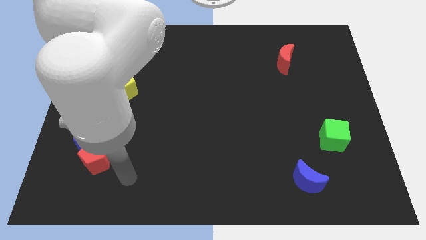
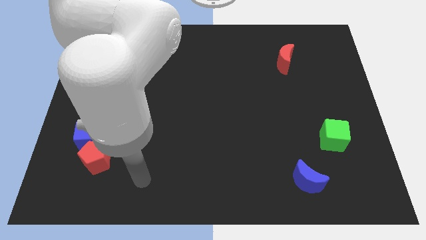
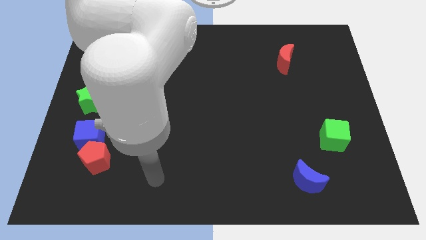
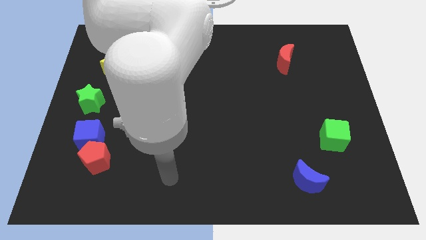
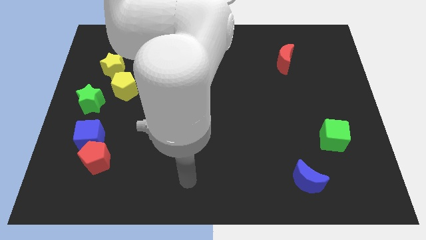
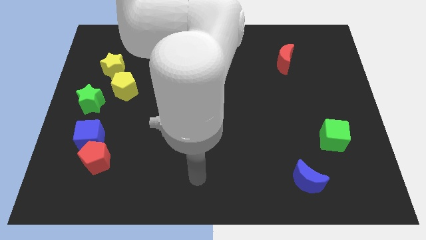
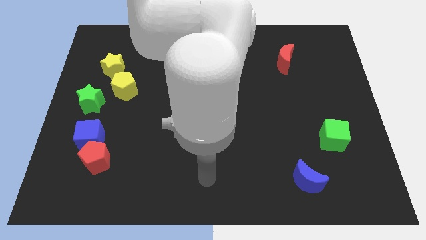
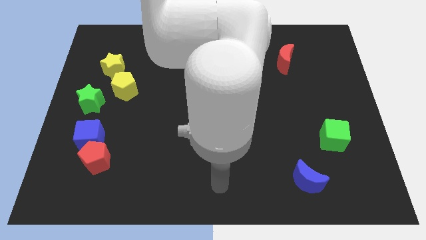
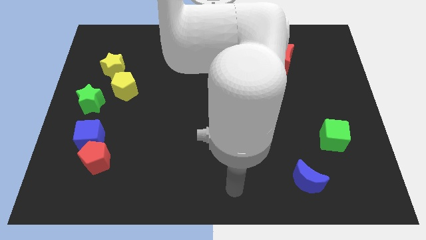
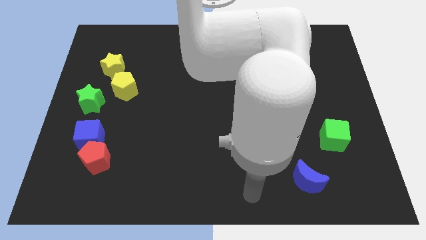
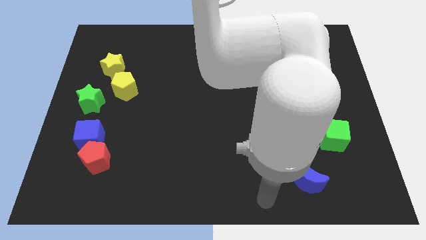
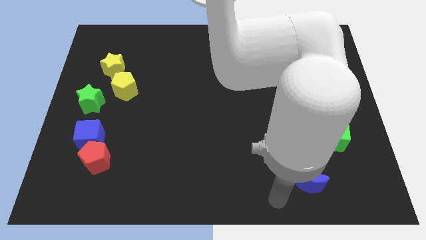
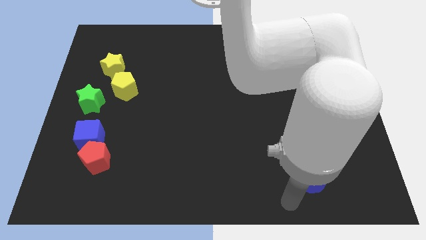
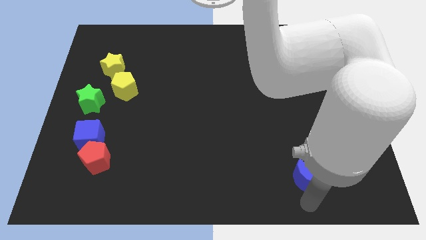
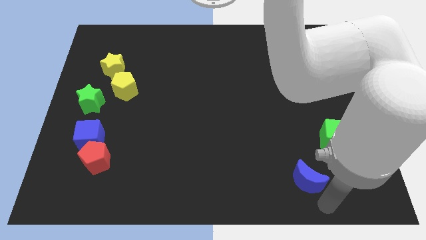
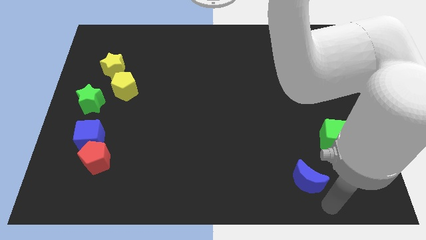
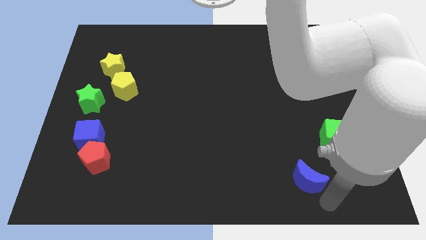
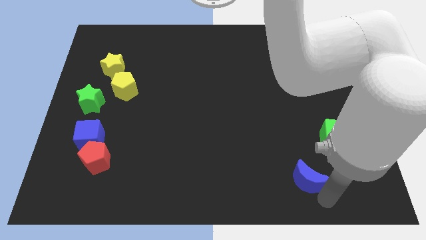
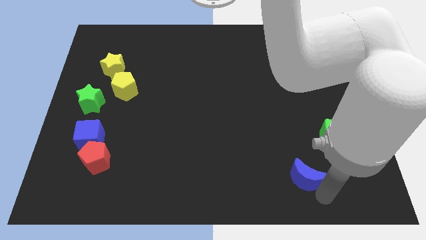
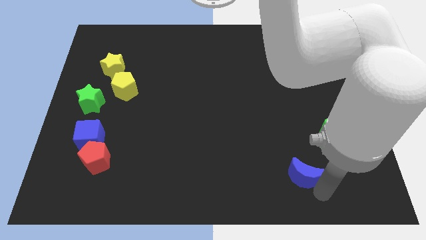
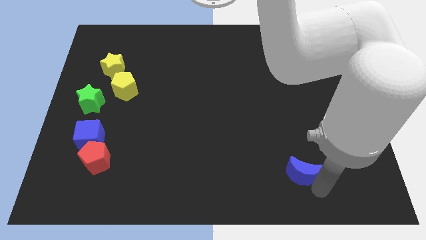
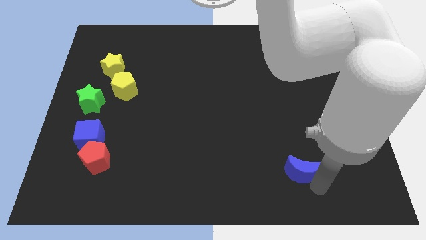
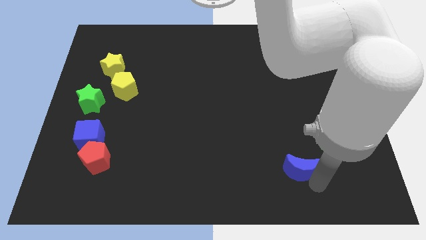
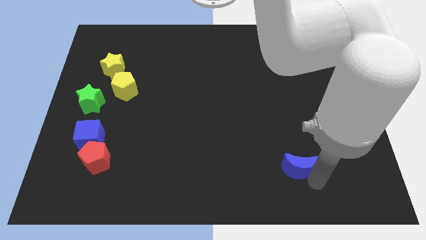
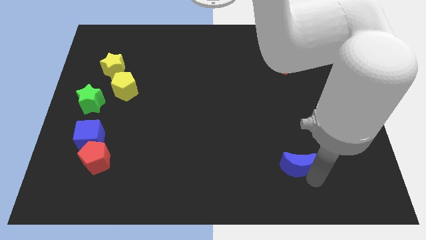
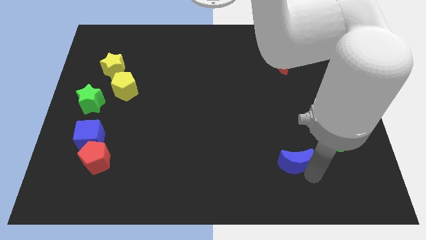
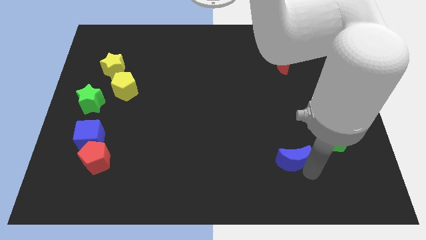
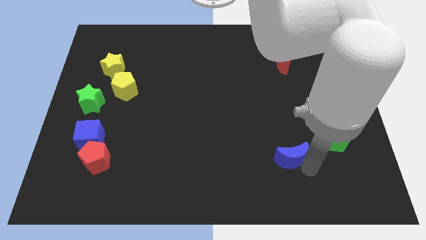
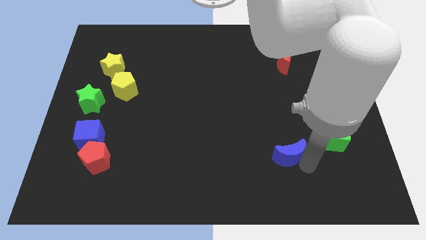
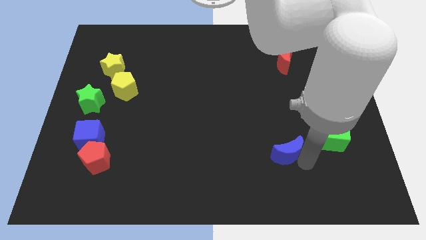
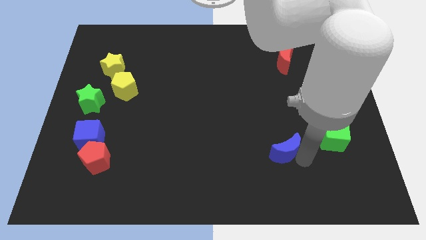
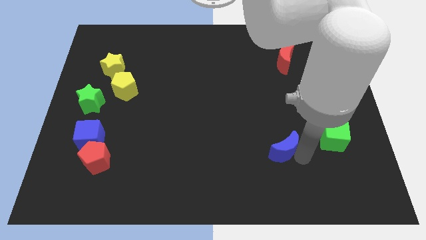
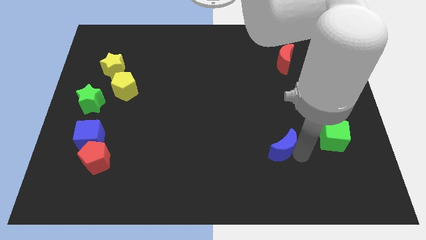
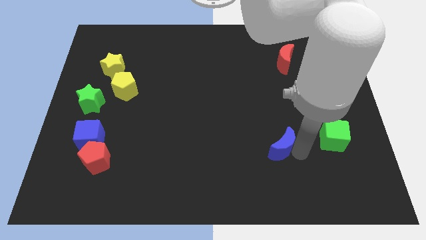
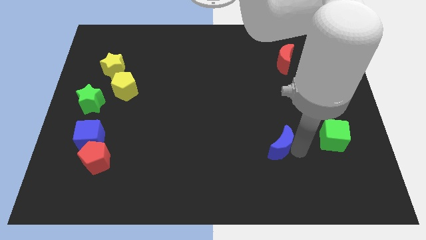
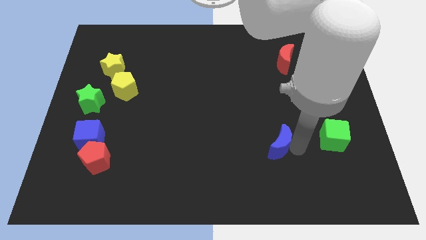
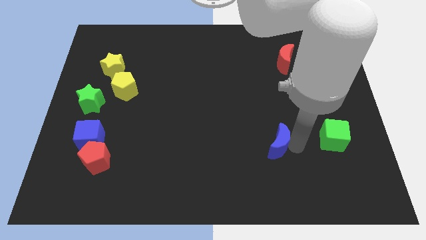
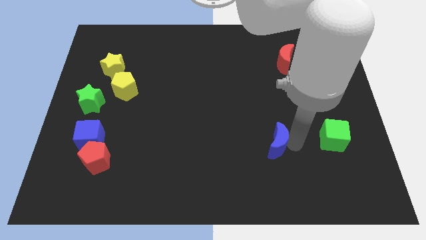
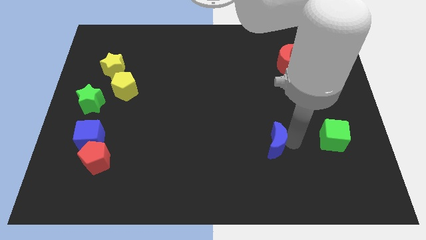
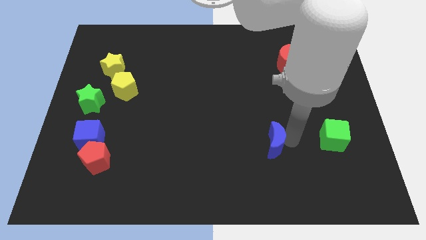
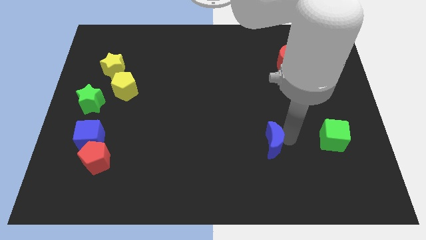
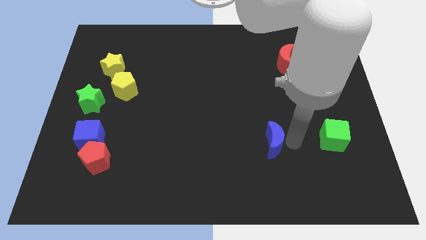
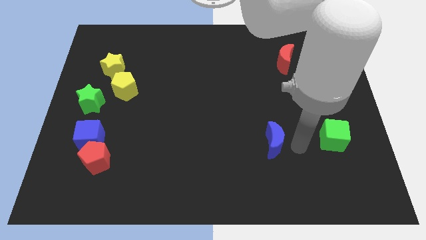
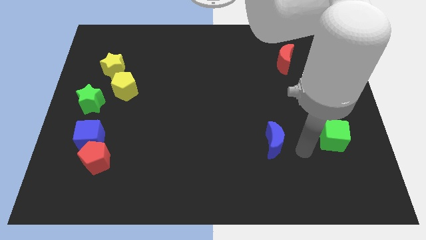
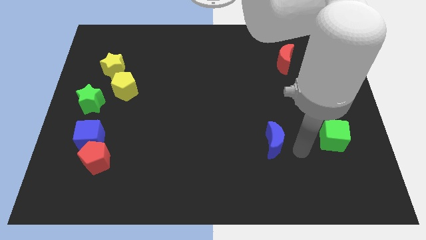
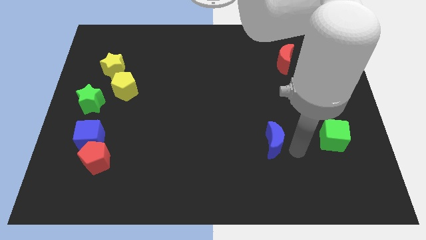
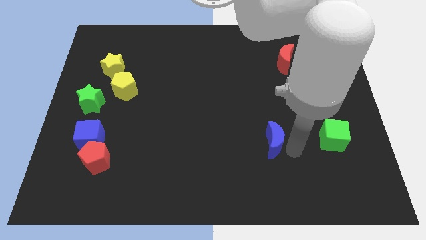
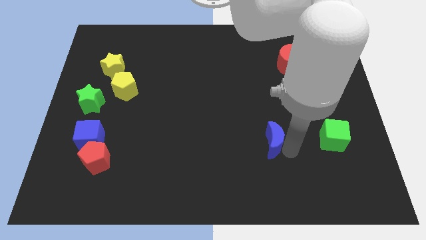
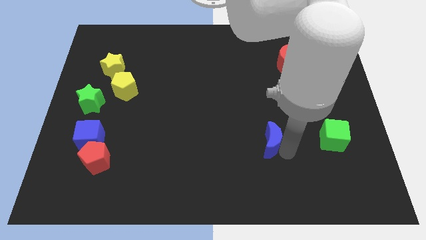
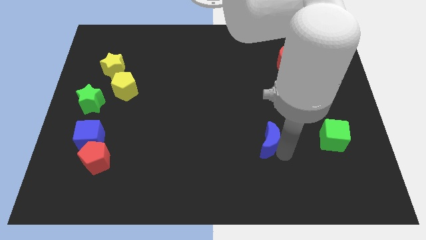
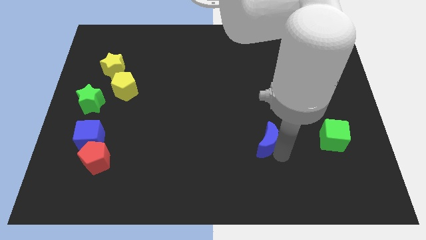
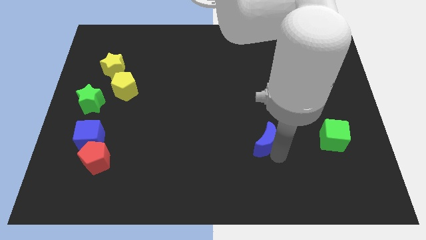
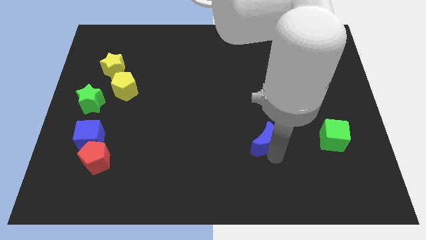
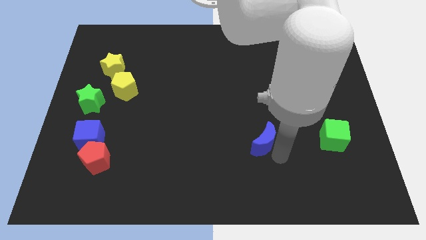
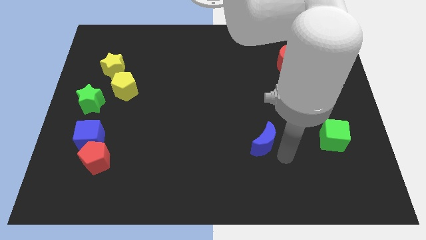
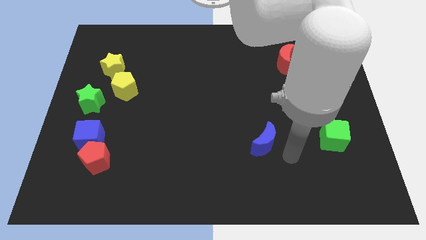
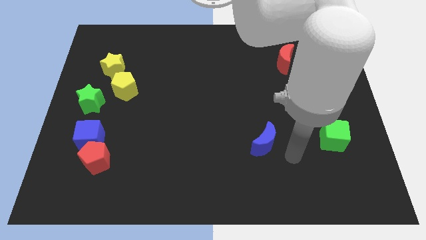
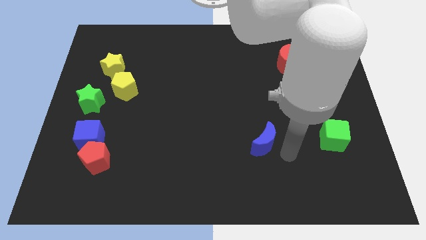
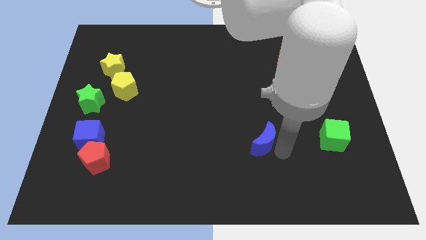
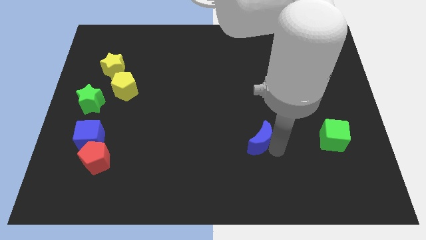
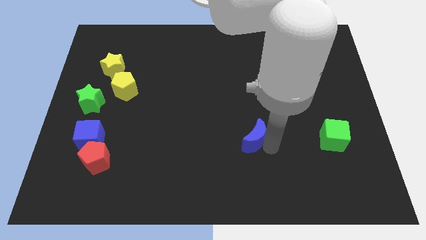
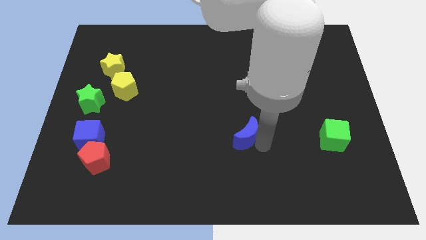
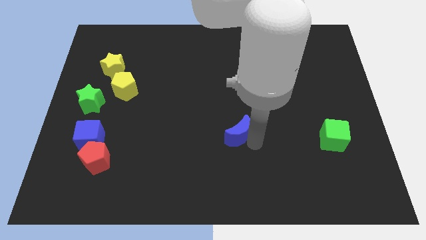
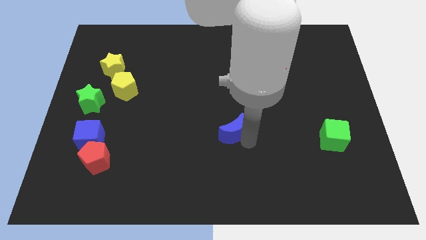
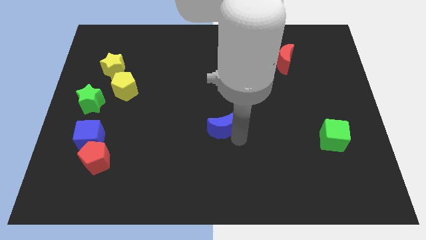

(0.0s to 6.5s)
slide the blue moon diagonally upwards and left

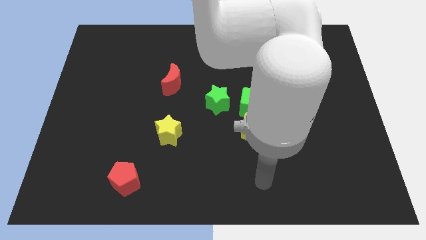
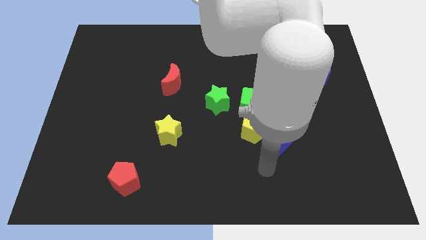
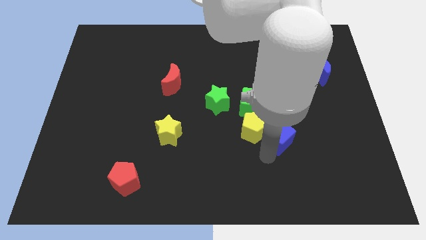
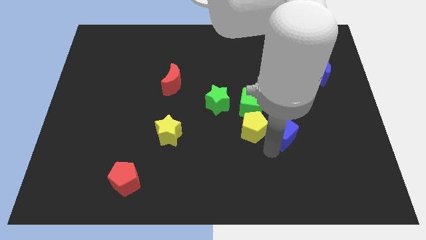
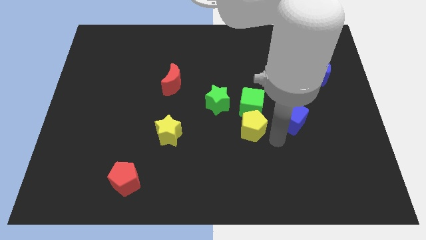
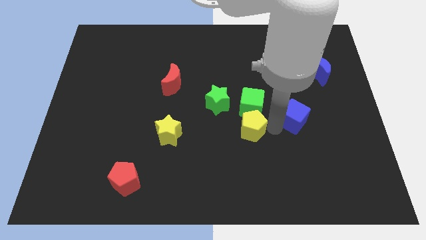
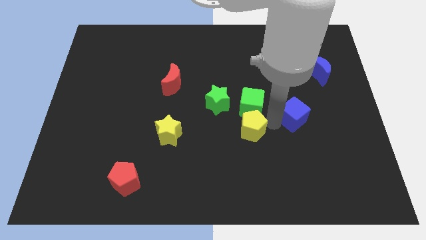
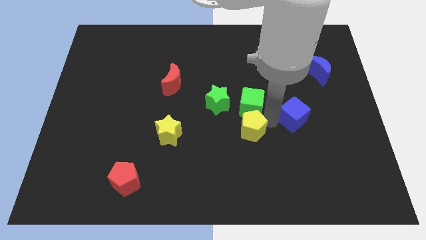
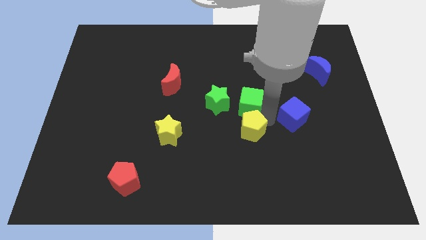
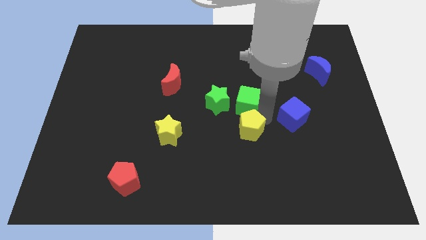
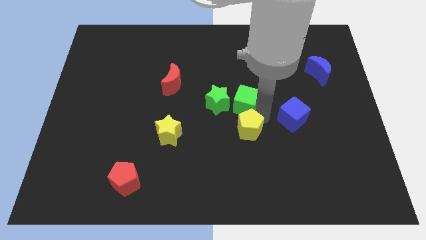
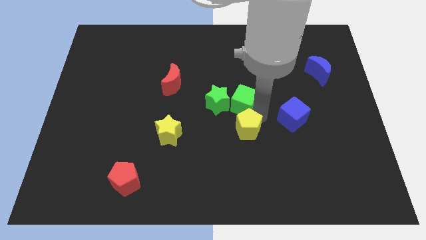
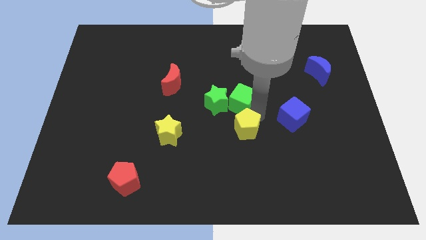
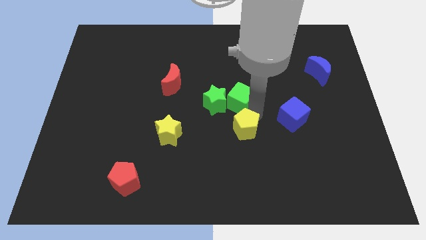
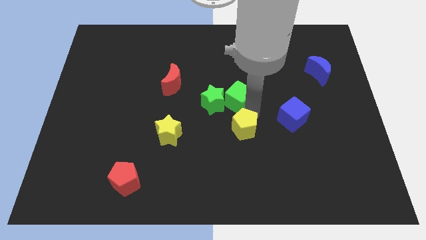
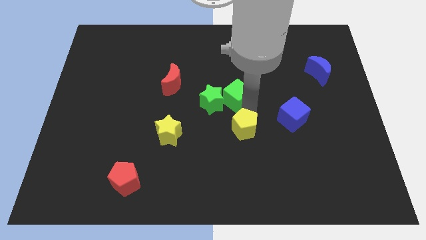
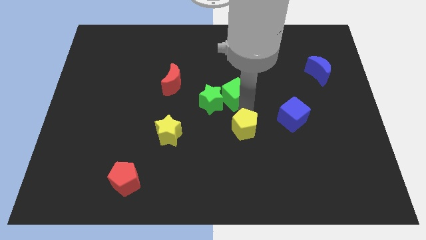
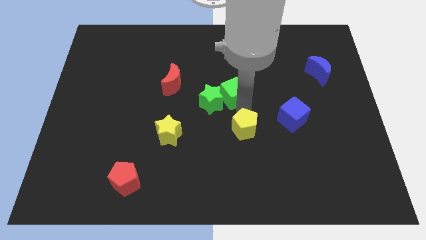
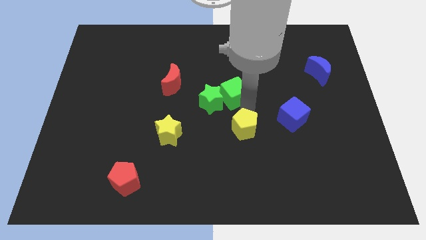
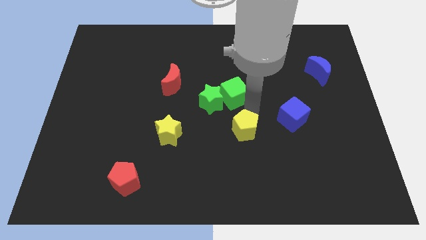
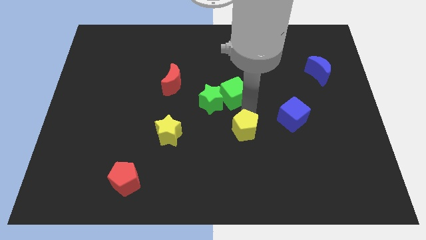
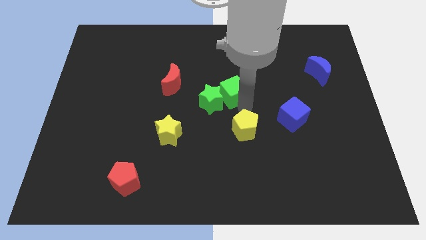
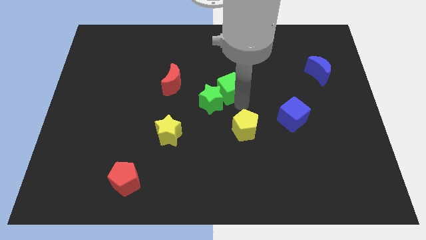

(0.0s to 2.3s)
push the green cube diagonally up and to the left somewhat
